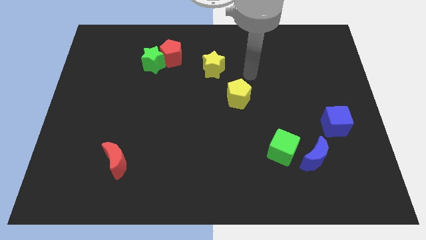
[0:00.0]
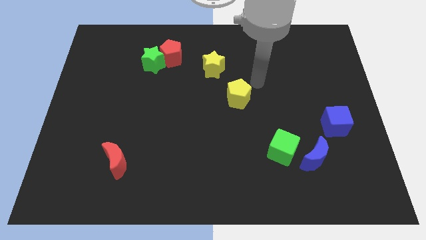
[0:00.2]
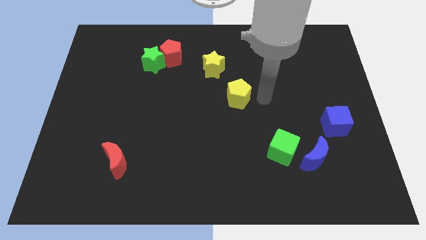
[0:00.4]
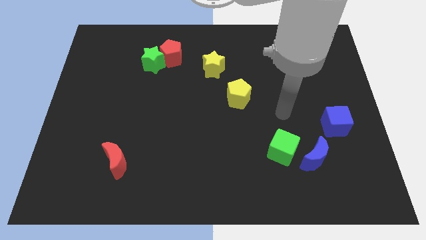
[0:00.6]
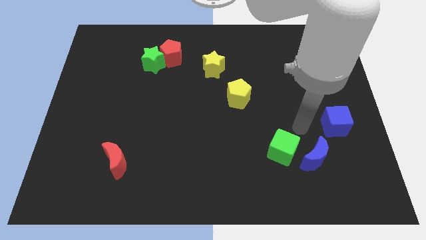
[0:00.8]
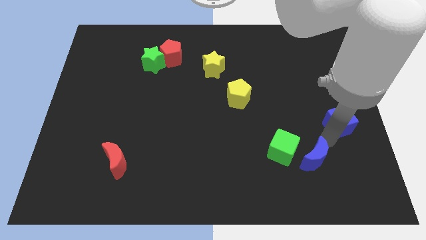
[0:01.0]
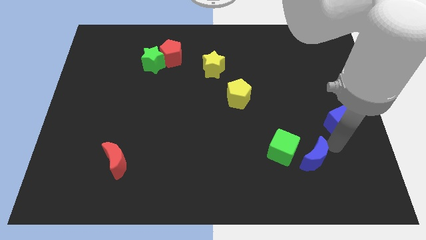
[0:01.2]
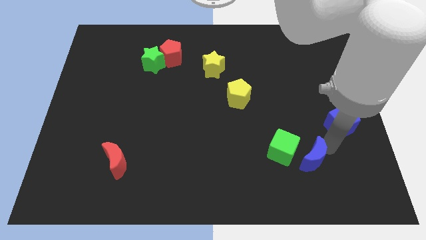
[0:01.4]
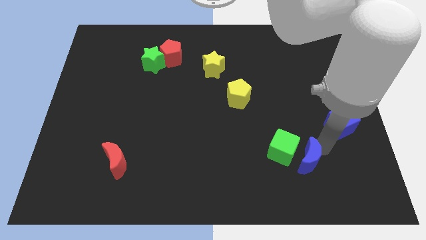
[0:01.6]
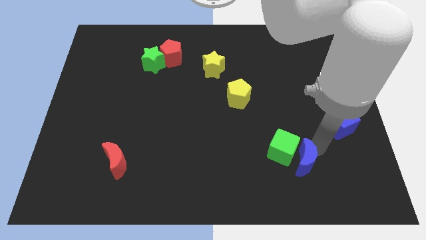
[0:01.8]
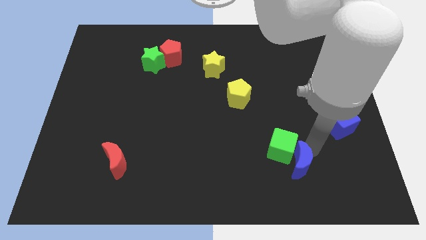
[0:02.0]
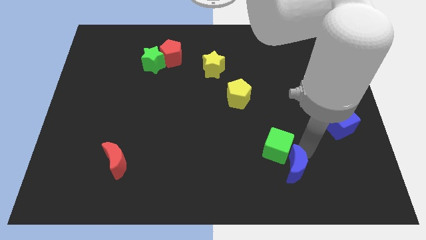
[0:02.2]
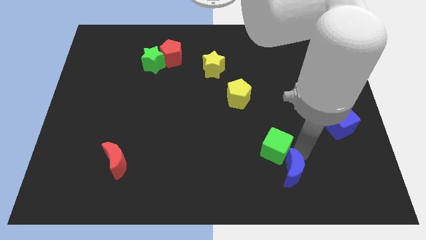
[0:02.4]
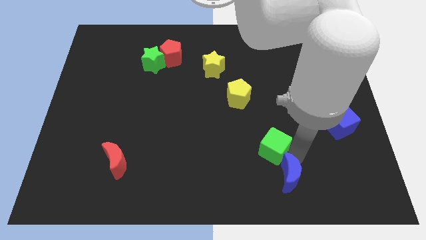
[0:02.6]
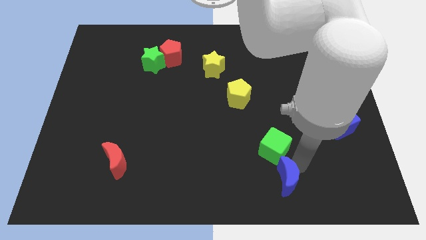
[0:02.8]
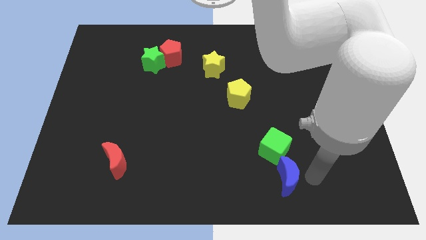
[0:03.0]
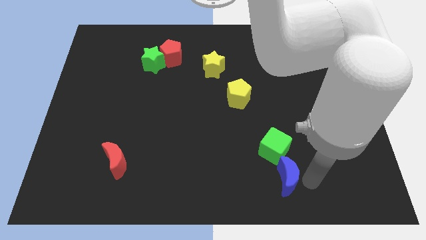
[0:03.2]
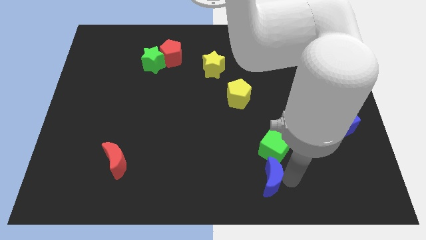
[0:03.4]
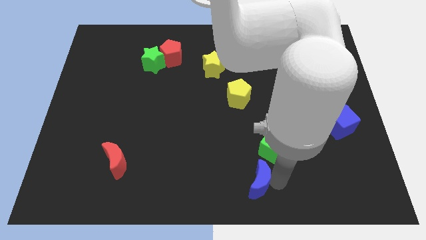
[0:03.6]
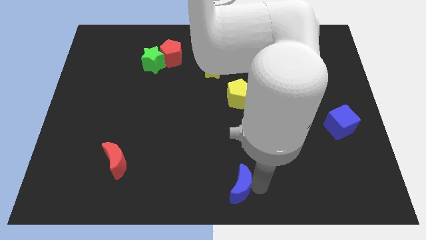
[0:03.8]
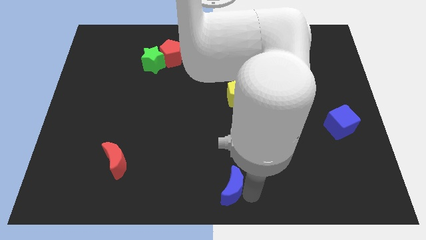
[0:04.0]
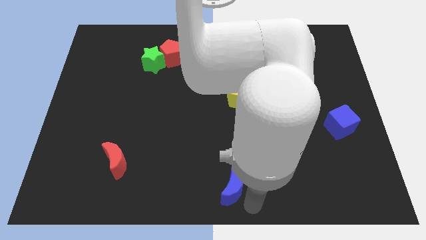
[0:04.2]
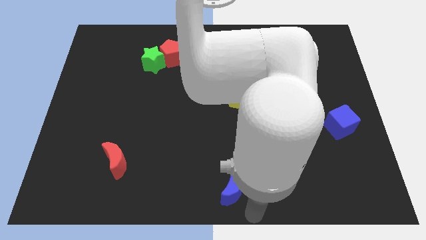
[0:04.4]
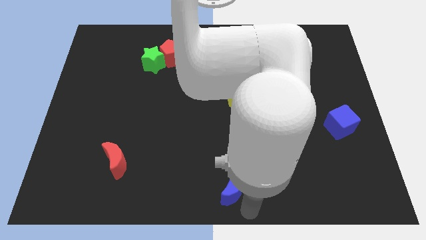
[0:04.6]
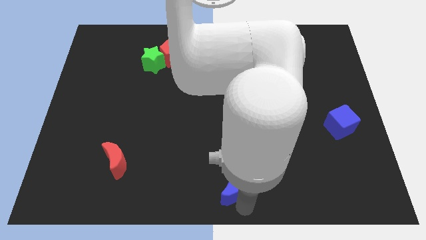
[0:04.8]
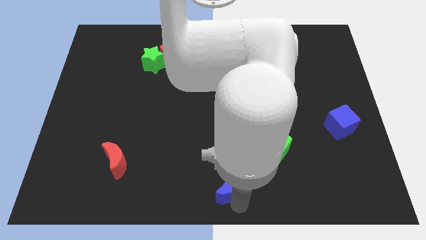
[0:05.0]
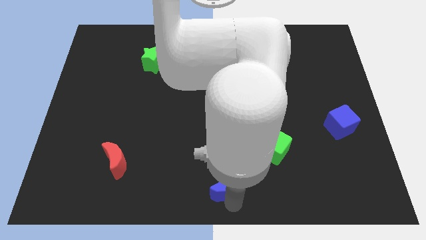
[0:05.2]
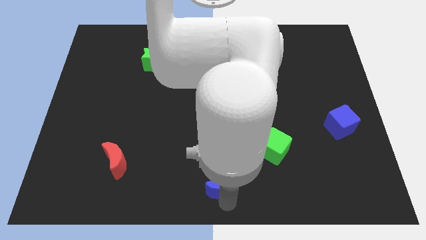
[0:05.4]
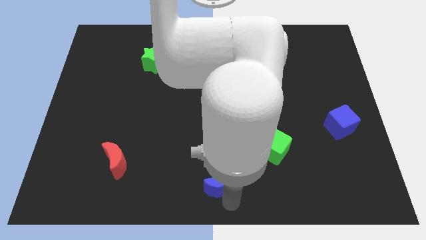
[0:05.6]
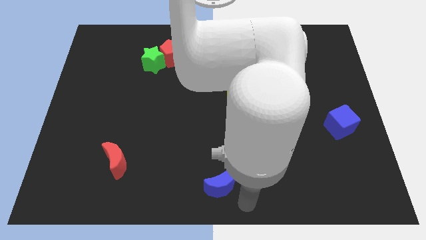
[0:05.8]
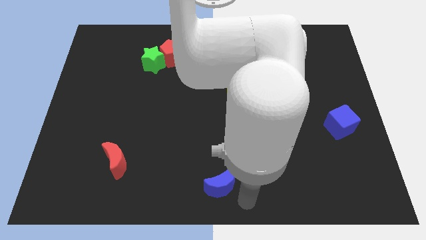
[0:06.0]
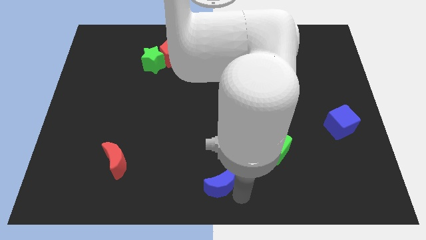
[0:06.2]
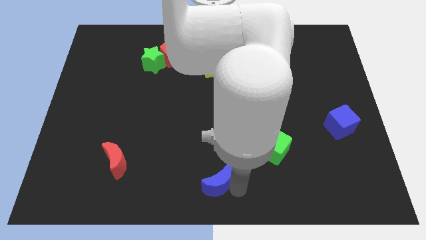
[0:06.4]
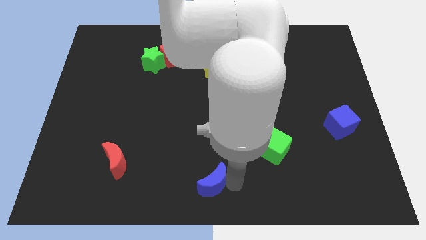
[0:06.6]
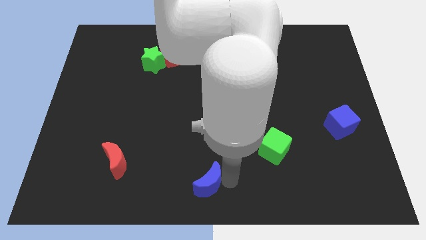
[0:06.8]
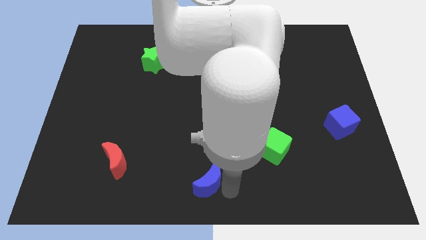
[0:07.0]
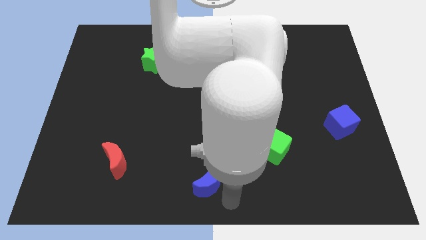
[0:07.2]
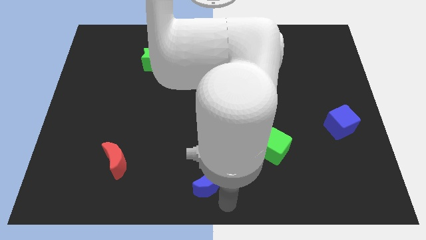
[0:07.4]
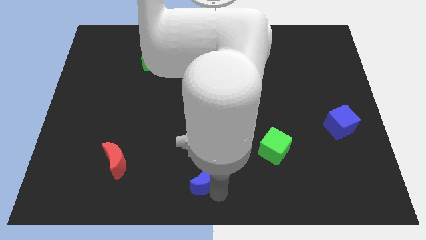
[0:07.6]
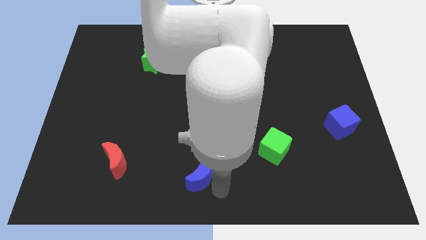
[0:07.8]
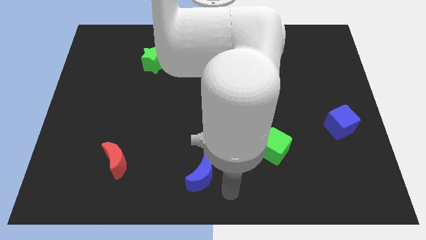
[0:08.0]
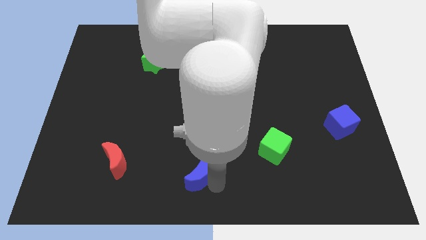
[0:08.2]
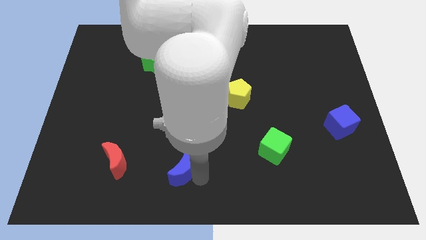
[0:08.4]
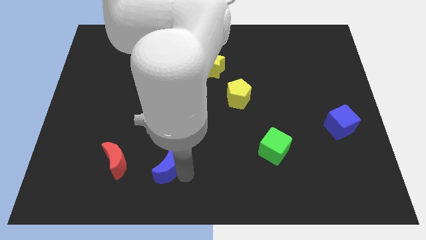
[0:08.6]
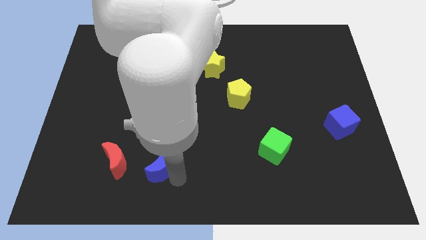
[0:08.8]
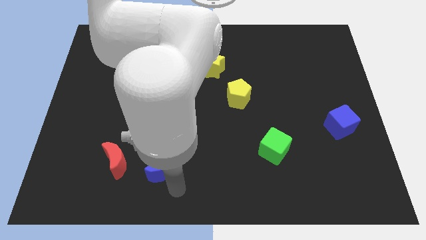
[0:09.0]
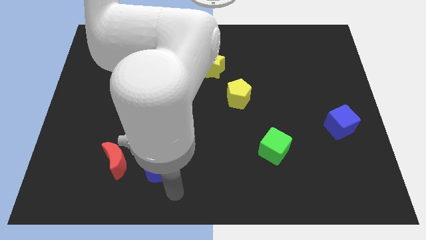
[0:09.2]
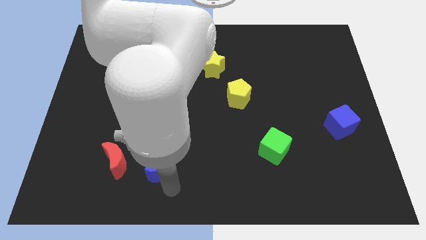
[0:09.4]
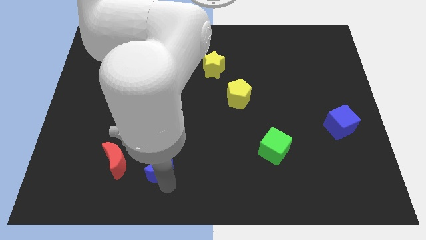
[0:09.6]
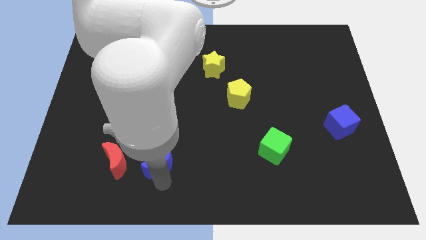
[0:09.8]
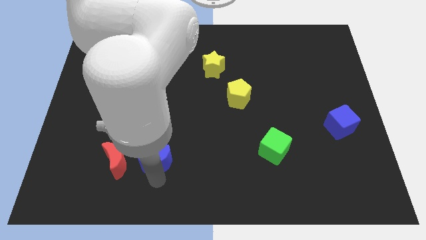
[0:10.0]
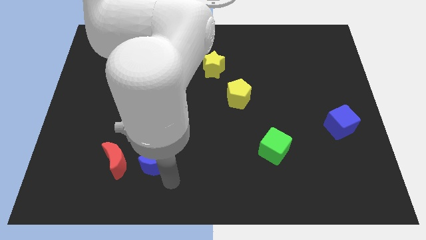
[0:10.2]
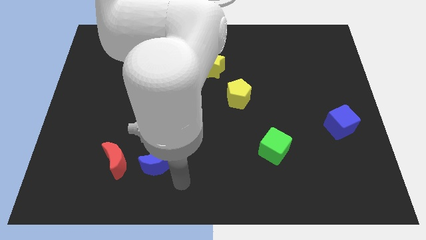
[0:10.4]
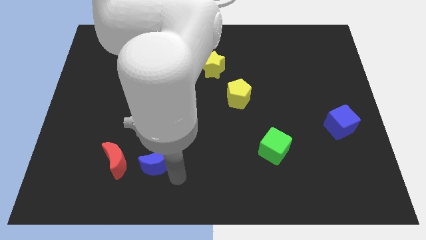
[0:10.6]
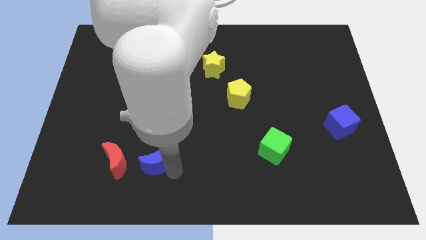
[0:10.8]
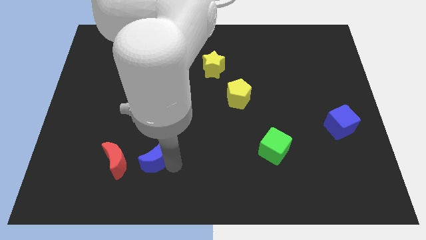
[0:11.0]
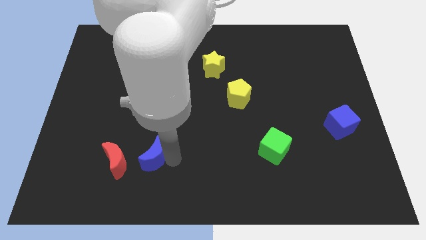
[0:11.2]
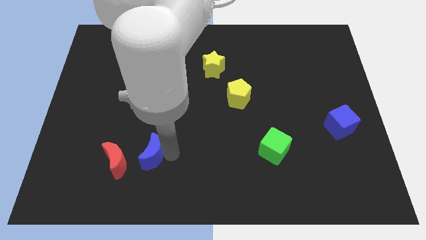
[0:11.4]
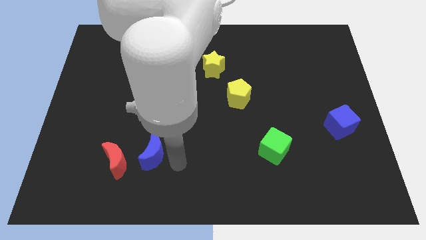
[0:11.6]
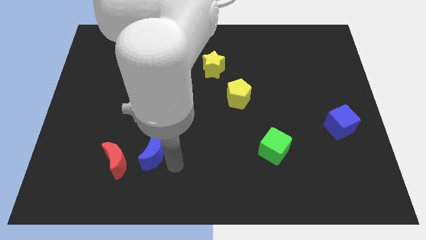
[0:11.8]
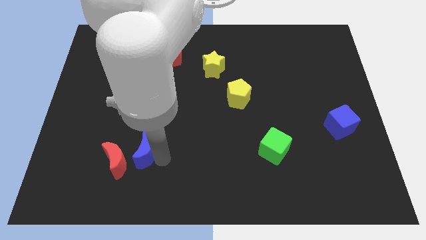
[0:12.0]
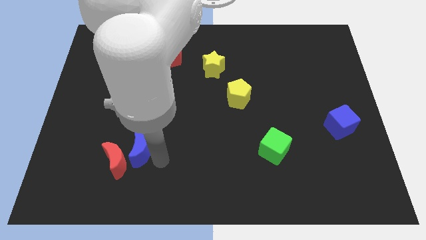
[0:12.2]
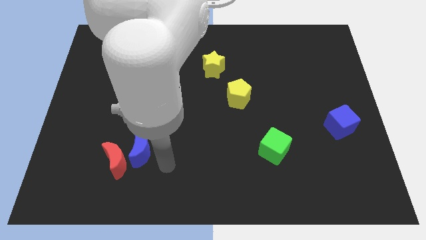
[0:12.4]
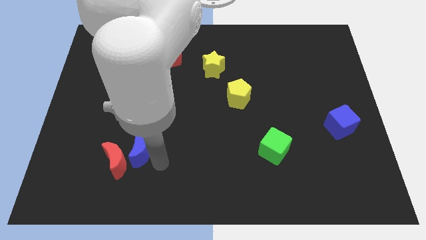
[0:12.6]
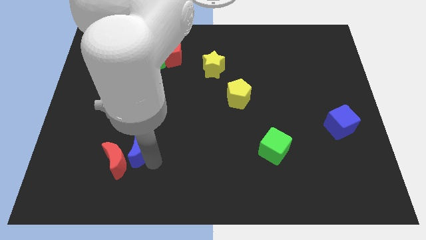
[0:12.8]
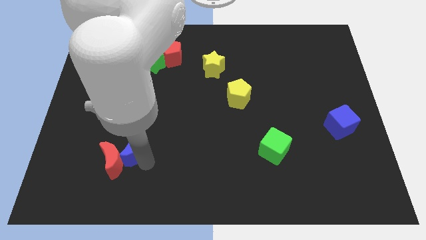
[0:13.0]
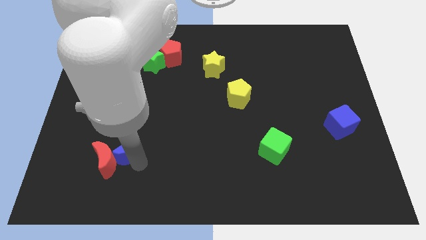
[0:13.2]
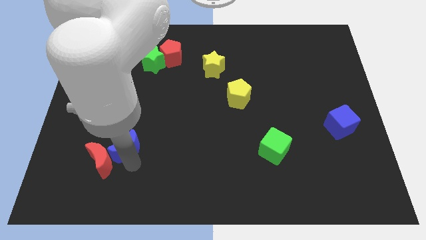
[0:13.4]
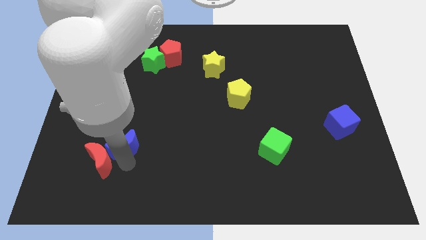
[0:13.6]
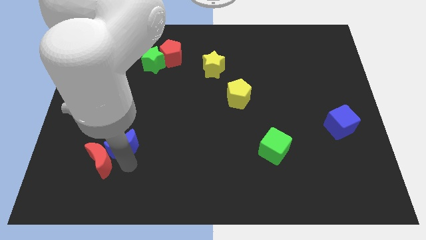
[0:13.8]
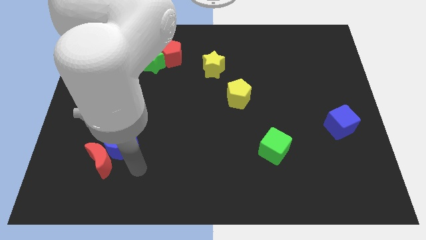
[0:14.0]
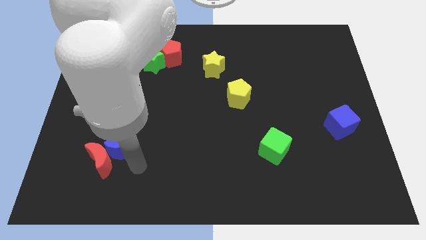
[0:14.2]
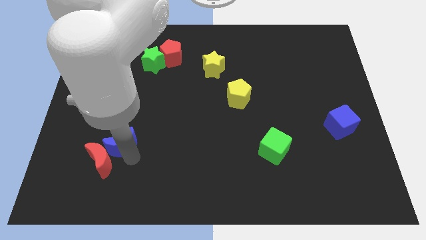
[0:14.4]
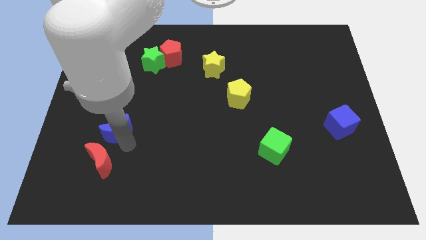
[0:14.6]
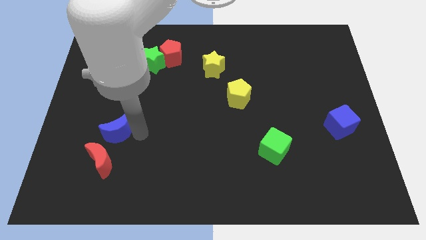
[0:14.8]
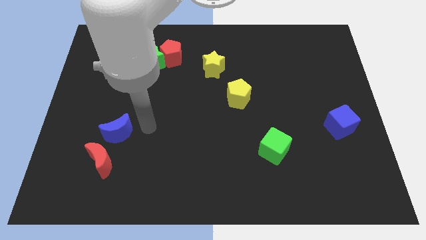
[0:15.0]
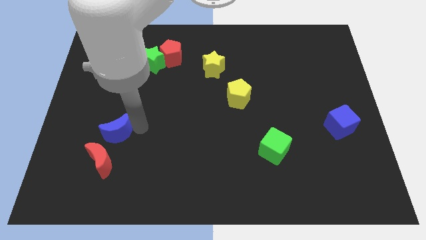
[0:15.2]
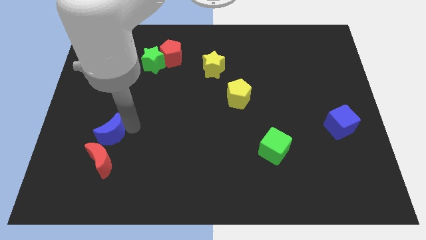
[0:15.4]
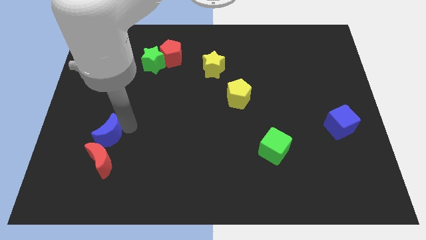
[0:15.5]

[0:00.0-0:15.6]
slide the blue moon to the top left side of the red moon
